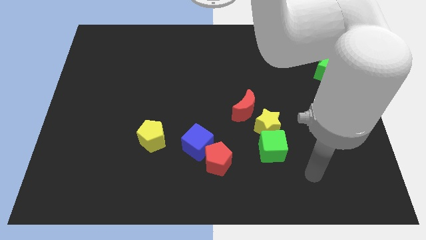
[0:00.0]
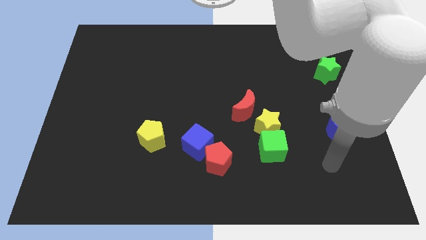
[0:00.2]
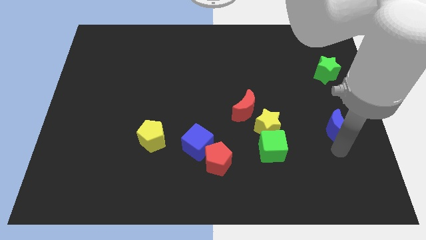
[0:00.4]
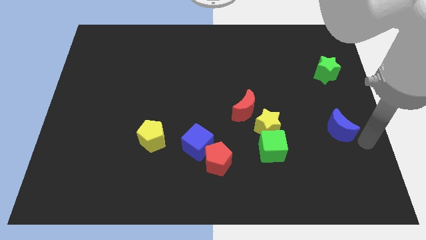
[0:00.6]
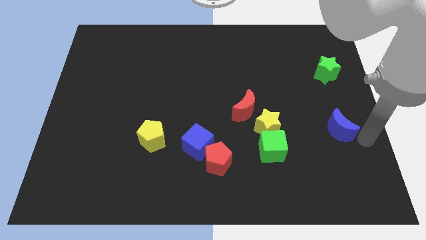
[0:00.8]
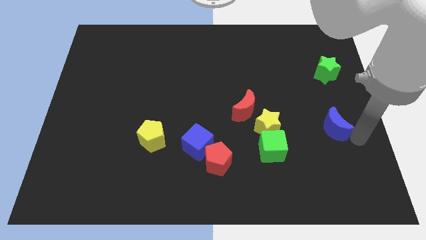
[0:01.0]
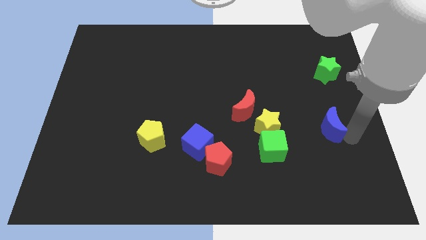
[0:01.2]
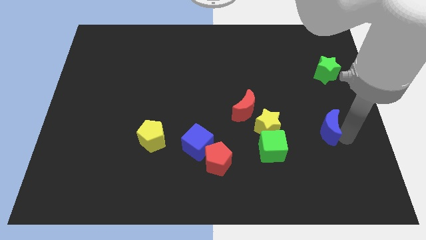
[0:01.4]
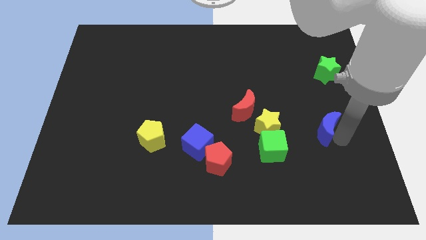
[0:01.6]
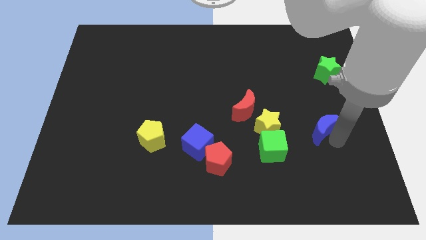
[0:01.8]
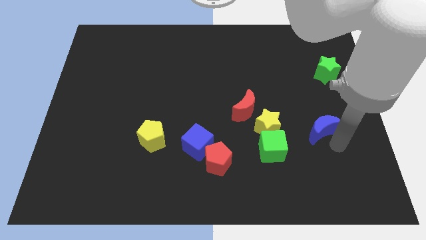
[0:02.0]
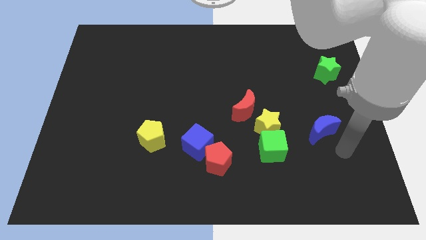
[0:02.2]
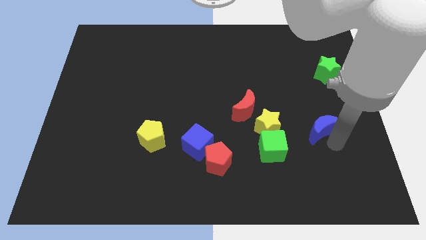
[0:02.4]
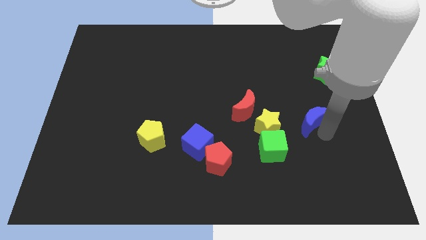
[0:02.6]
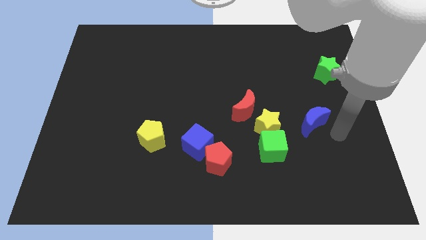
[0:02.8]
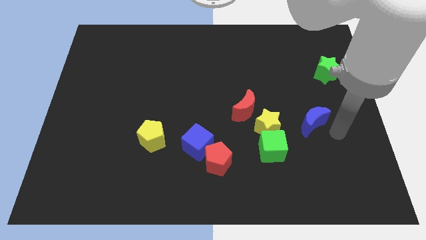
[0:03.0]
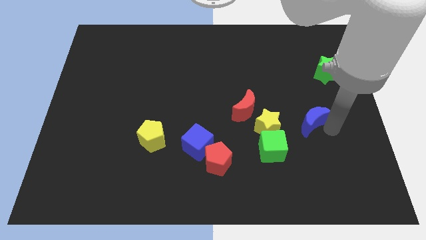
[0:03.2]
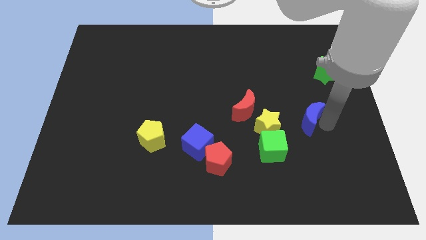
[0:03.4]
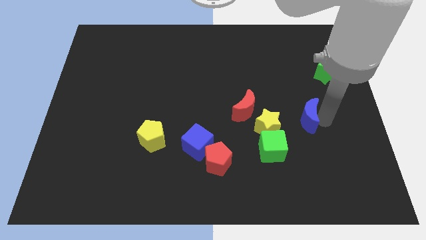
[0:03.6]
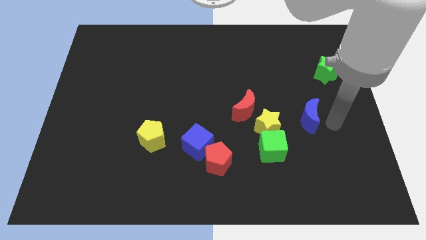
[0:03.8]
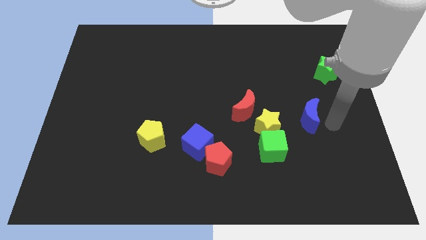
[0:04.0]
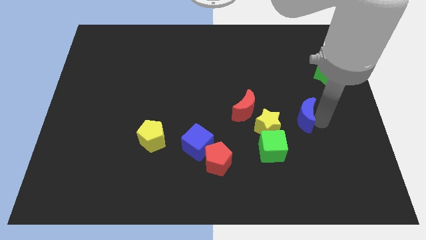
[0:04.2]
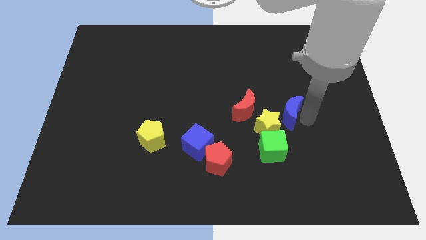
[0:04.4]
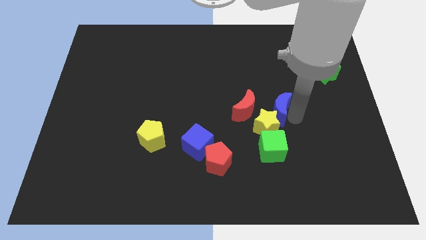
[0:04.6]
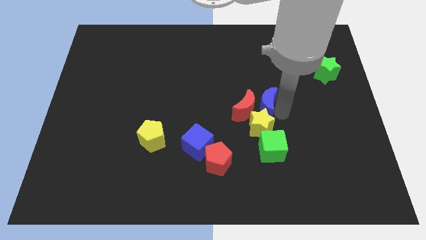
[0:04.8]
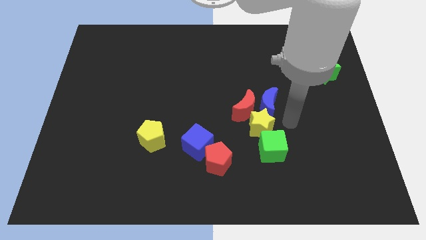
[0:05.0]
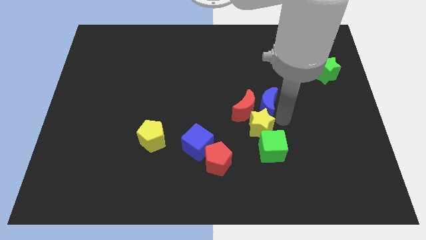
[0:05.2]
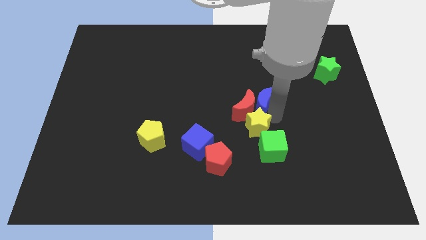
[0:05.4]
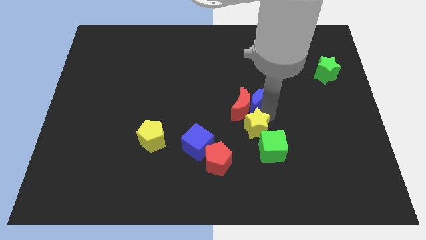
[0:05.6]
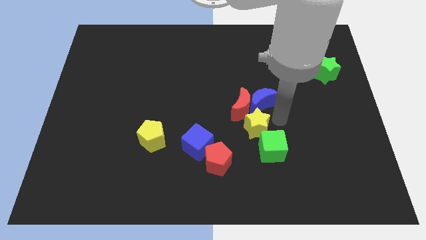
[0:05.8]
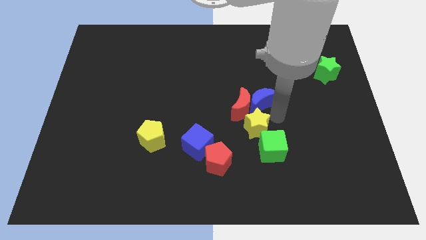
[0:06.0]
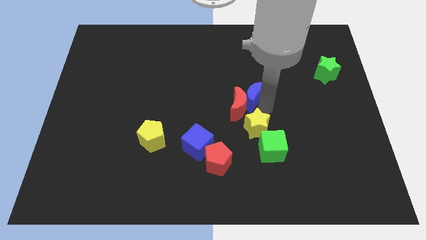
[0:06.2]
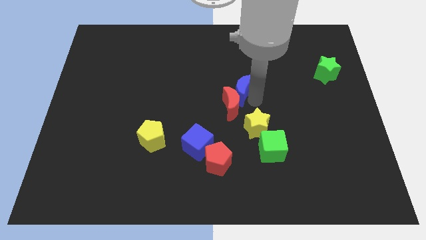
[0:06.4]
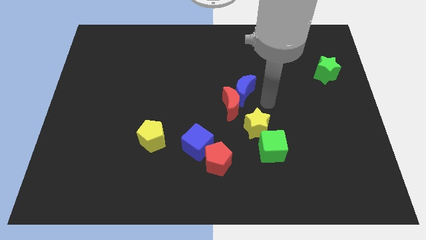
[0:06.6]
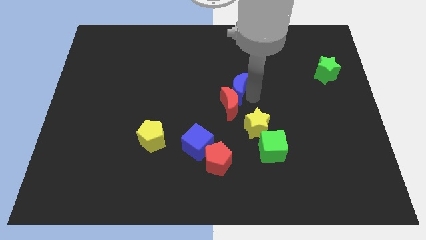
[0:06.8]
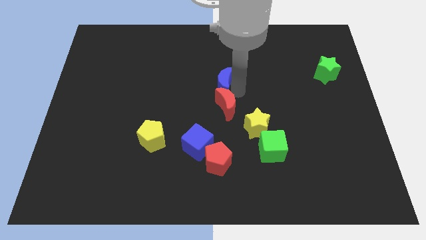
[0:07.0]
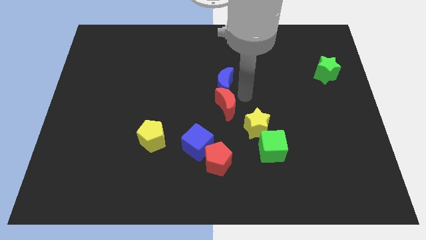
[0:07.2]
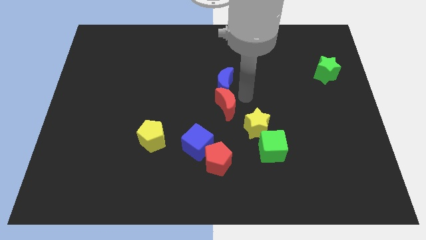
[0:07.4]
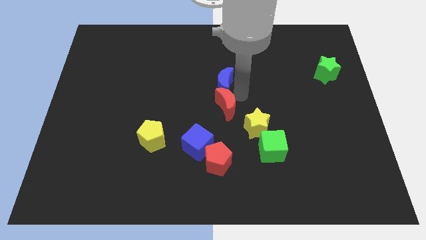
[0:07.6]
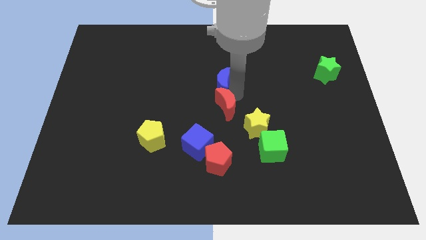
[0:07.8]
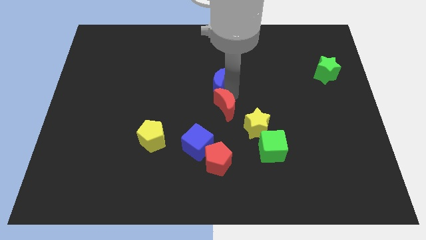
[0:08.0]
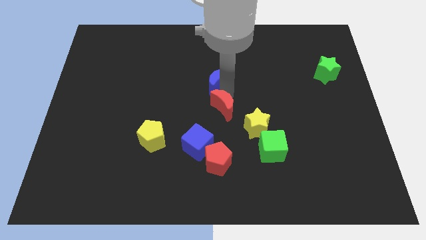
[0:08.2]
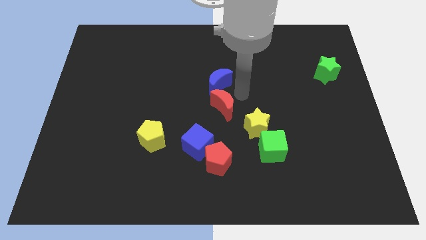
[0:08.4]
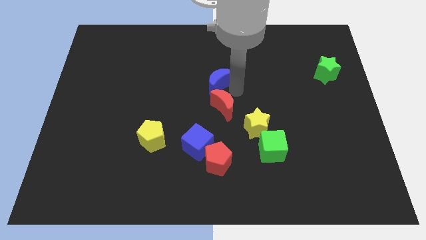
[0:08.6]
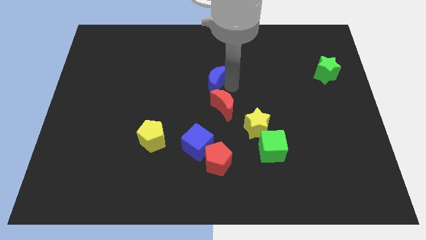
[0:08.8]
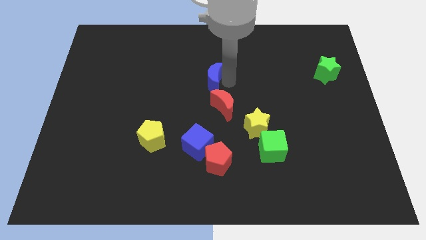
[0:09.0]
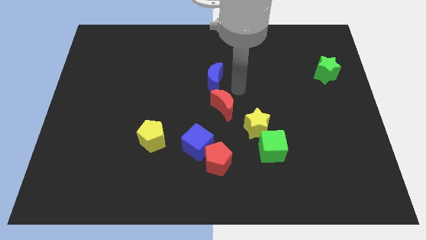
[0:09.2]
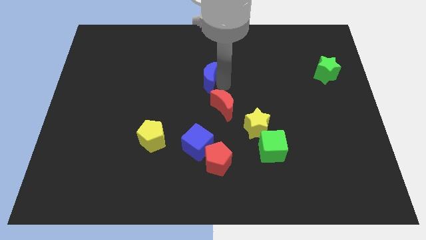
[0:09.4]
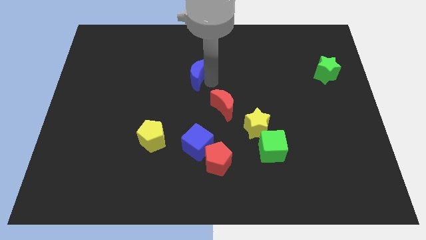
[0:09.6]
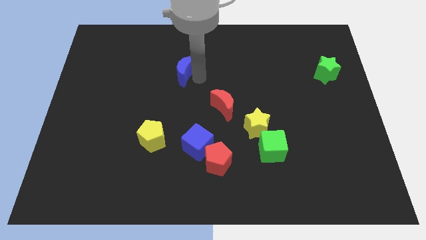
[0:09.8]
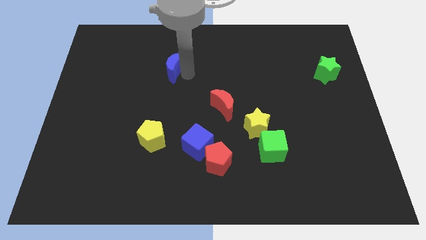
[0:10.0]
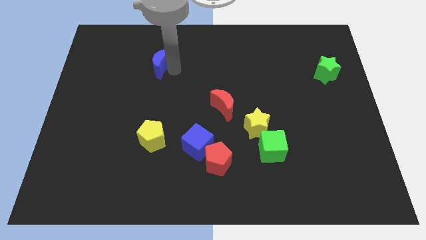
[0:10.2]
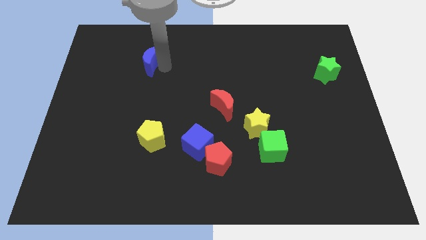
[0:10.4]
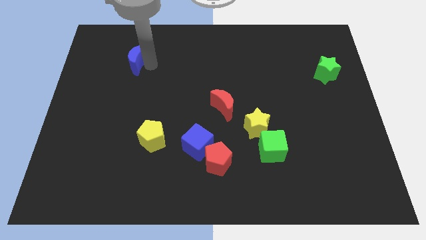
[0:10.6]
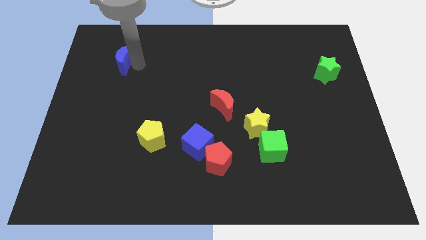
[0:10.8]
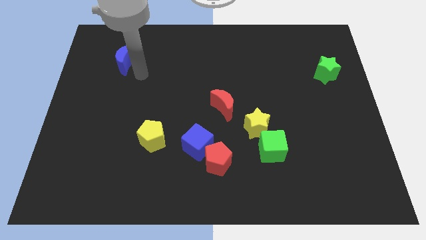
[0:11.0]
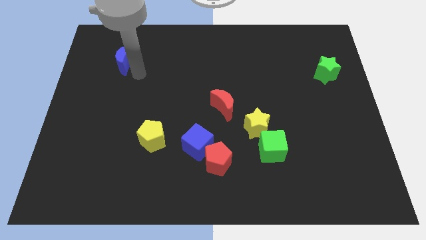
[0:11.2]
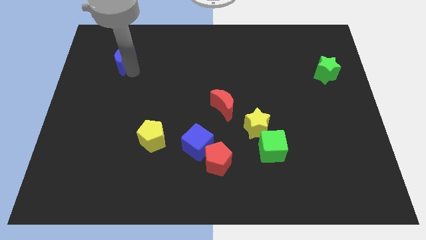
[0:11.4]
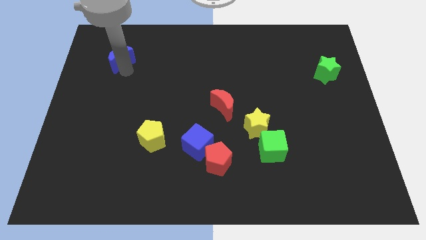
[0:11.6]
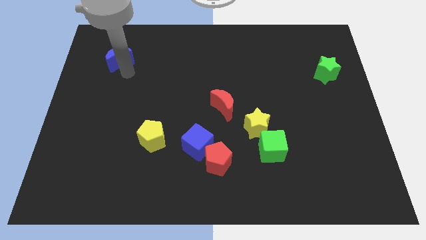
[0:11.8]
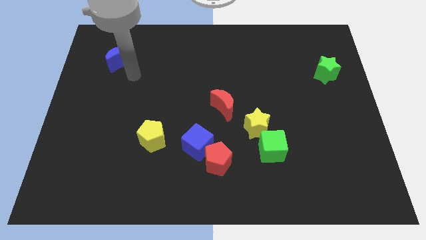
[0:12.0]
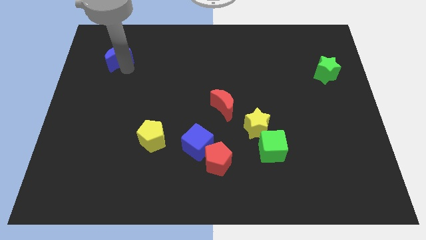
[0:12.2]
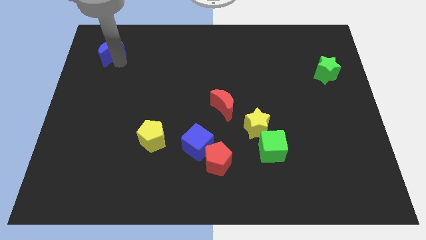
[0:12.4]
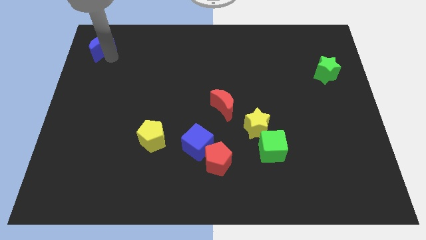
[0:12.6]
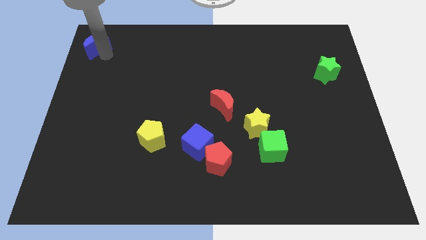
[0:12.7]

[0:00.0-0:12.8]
push the blue moon to the top left of the board
